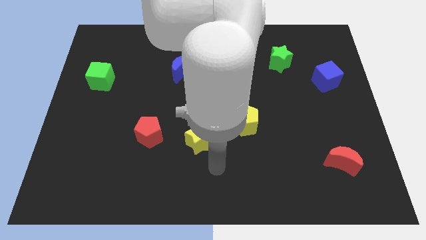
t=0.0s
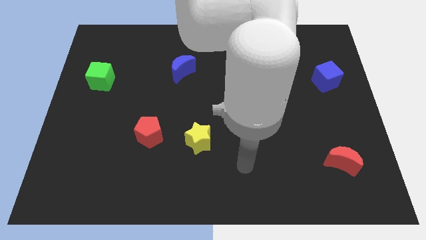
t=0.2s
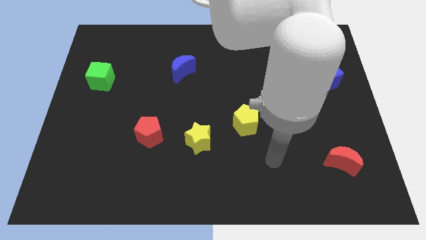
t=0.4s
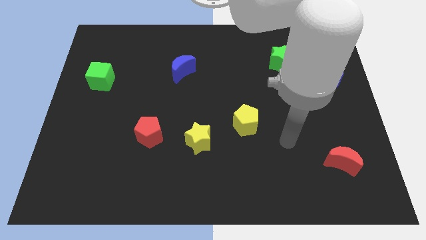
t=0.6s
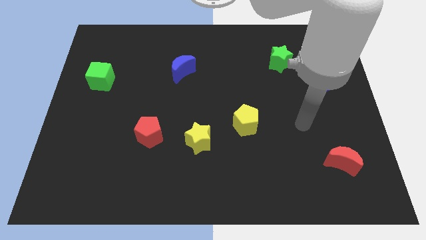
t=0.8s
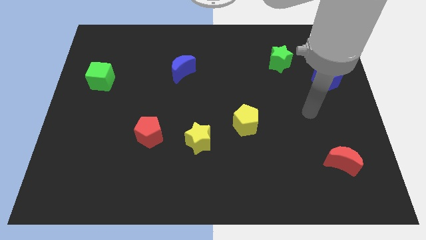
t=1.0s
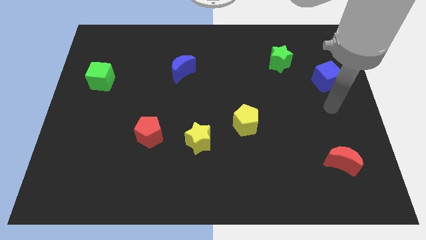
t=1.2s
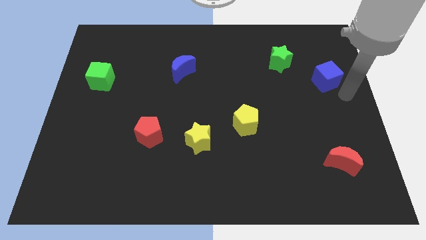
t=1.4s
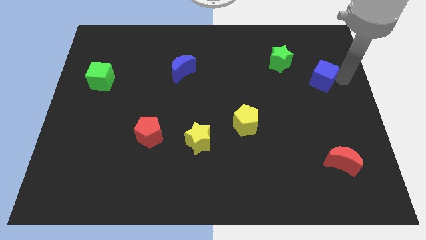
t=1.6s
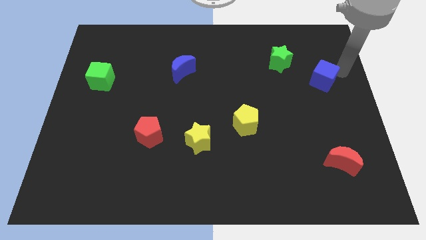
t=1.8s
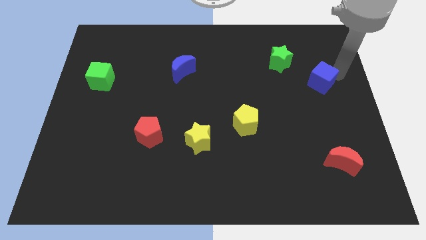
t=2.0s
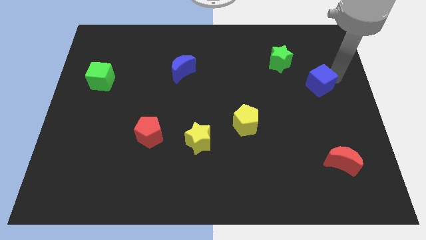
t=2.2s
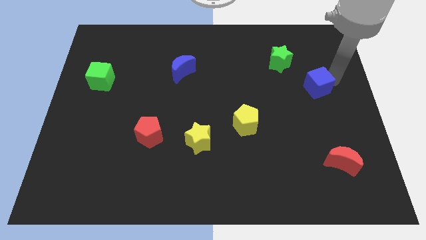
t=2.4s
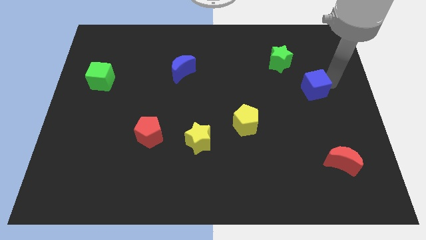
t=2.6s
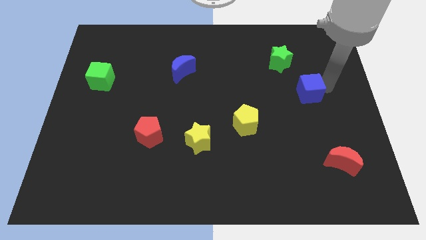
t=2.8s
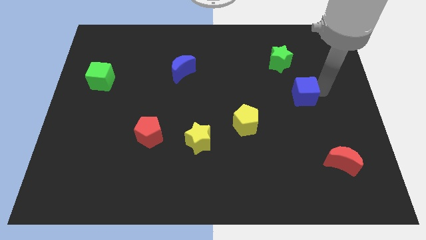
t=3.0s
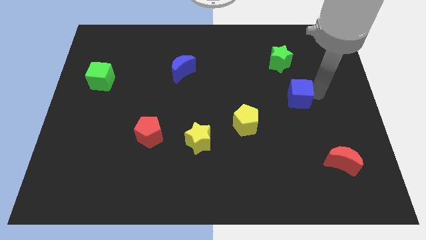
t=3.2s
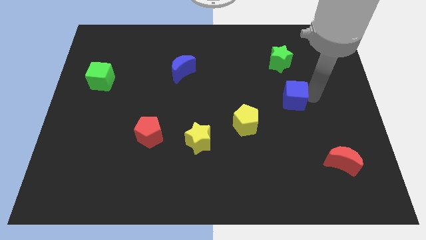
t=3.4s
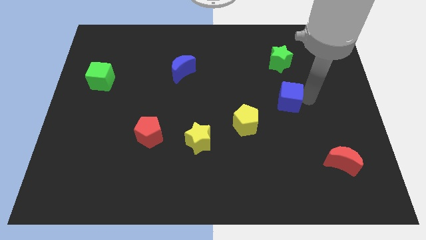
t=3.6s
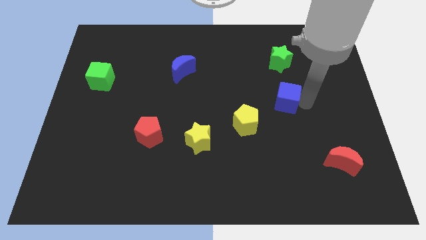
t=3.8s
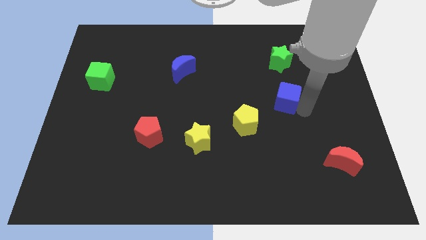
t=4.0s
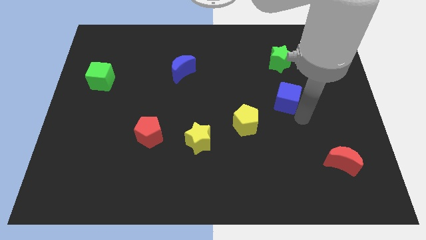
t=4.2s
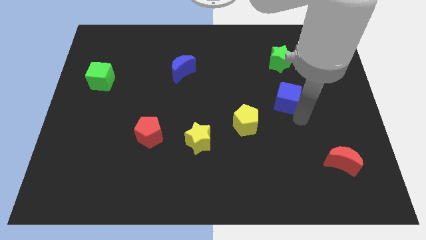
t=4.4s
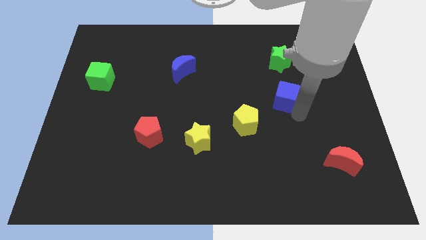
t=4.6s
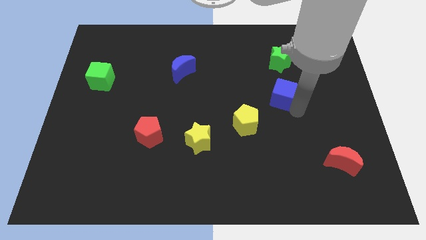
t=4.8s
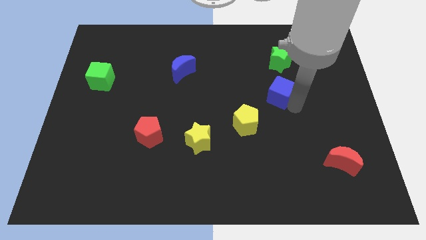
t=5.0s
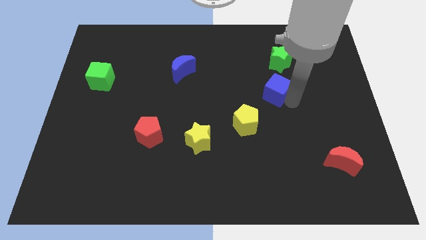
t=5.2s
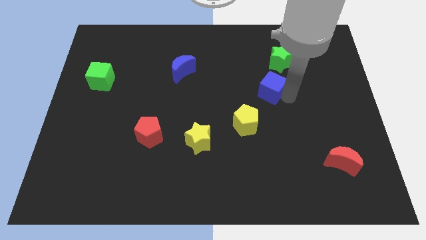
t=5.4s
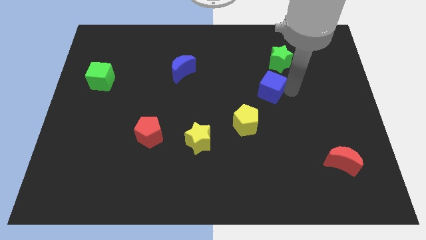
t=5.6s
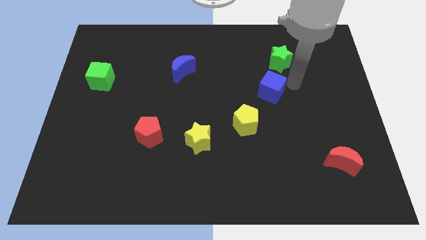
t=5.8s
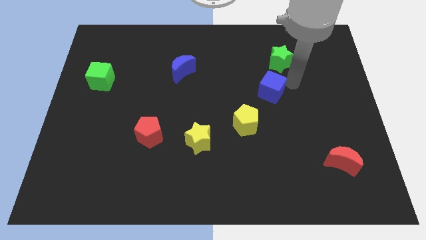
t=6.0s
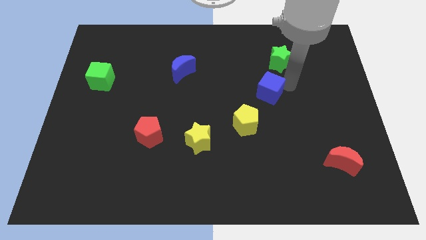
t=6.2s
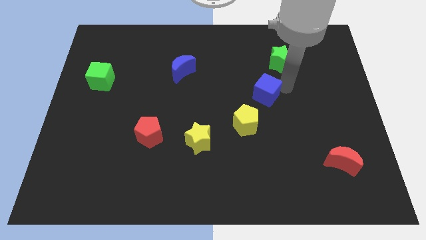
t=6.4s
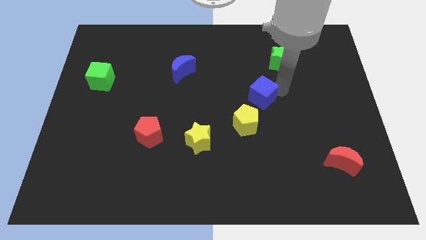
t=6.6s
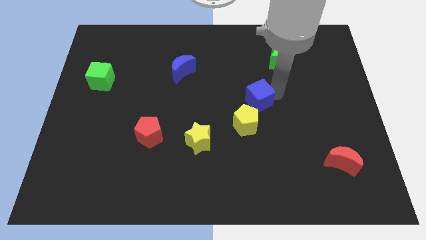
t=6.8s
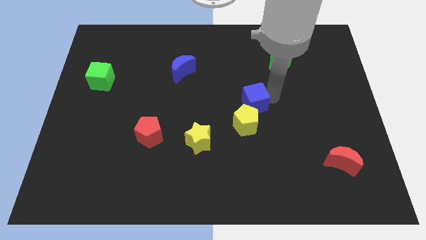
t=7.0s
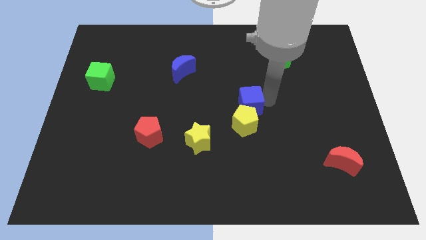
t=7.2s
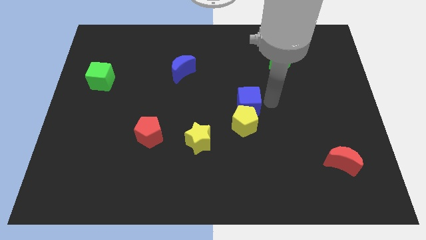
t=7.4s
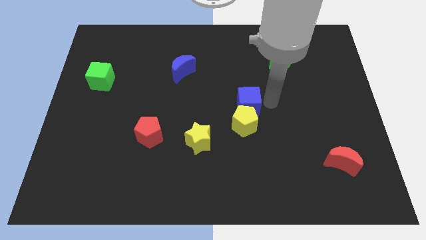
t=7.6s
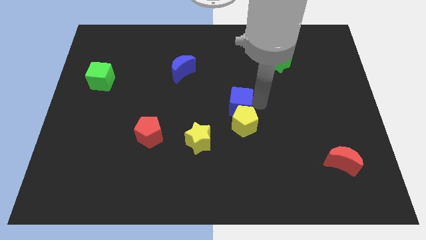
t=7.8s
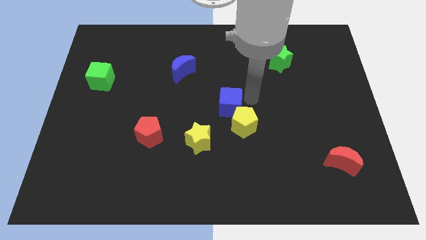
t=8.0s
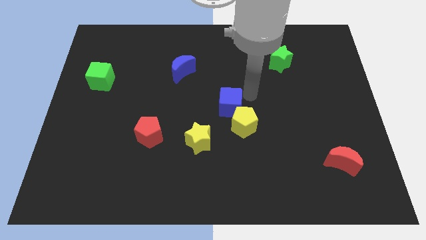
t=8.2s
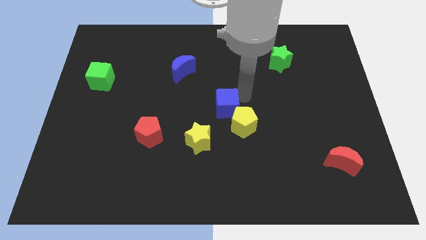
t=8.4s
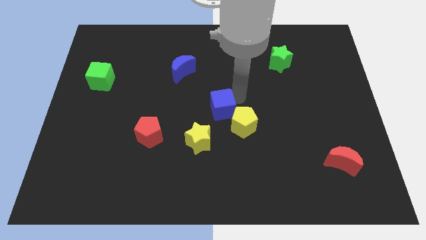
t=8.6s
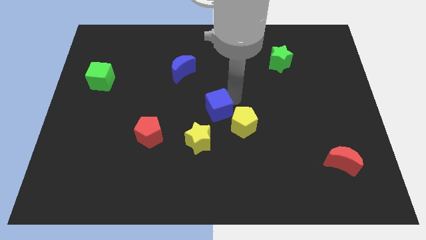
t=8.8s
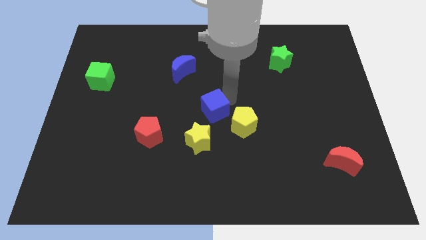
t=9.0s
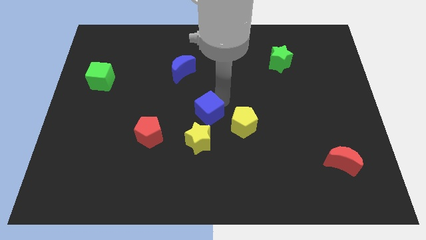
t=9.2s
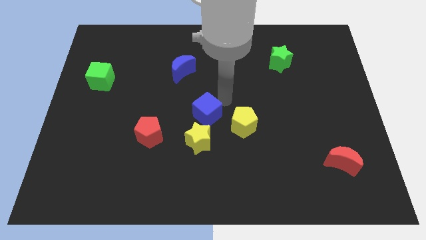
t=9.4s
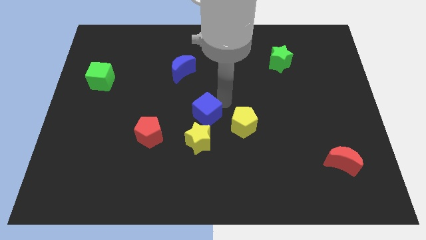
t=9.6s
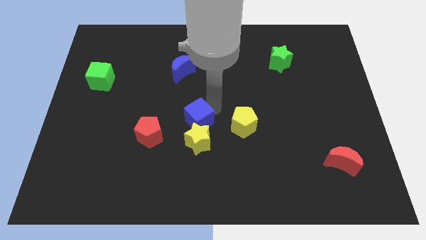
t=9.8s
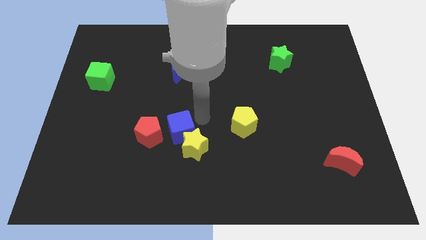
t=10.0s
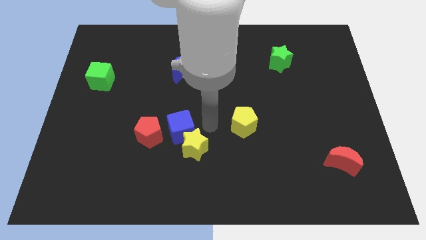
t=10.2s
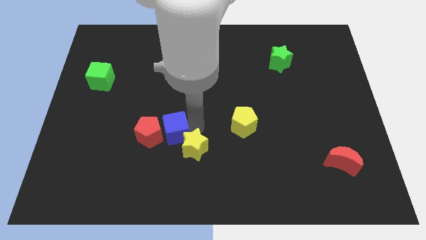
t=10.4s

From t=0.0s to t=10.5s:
slide the blue cube towards the red pentagon

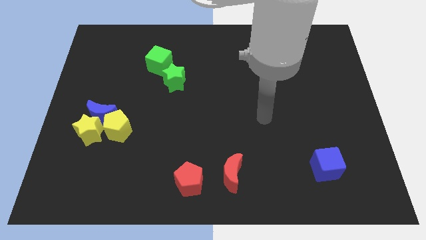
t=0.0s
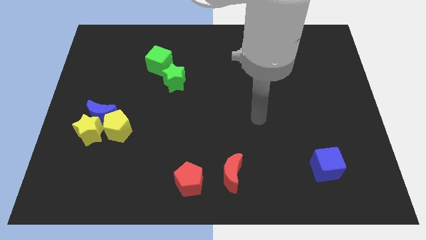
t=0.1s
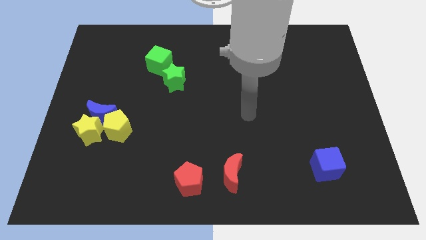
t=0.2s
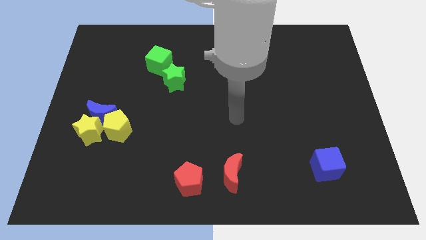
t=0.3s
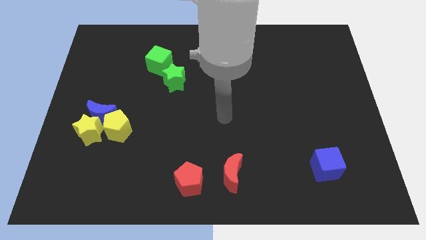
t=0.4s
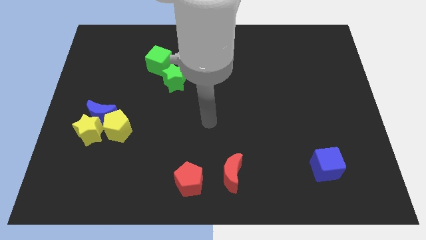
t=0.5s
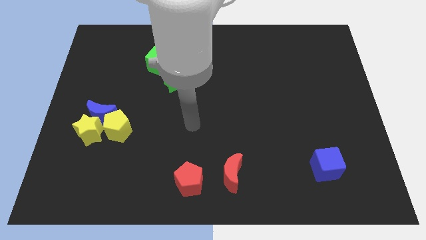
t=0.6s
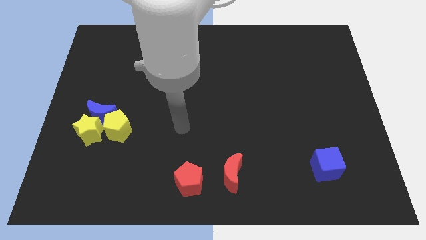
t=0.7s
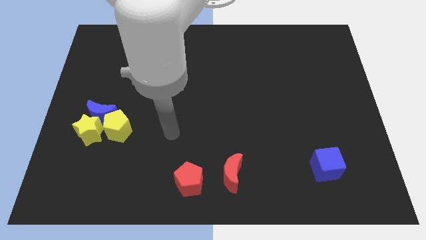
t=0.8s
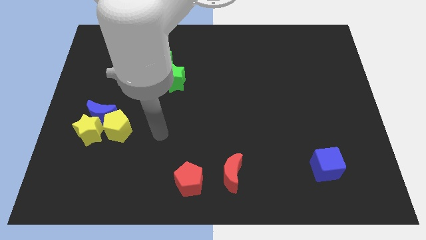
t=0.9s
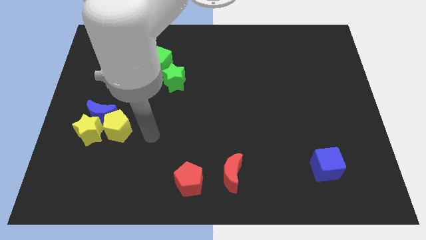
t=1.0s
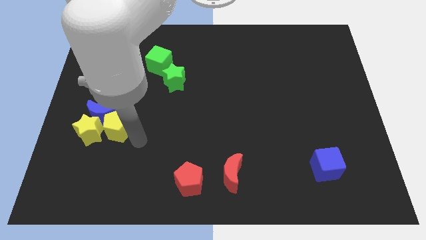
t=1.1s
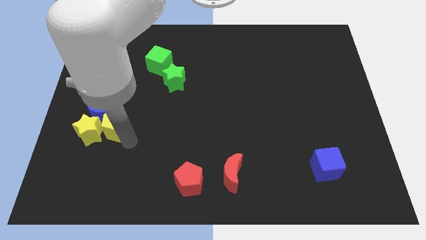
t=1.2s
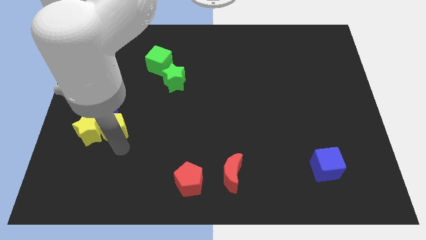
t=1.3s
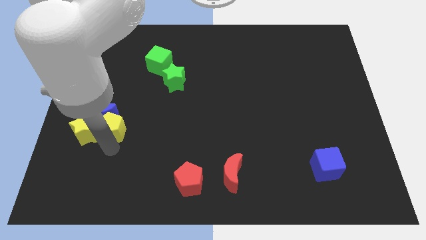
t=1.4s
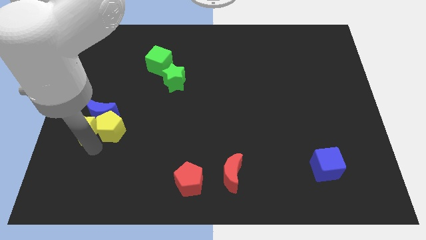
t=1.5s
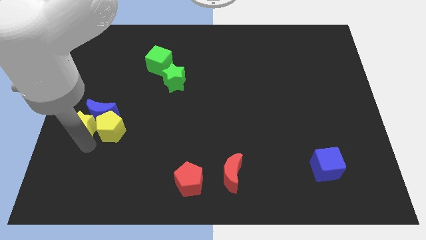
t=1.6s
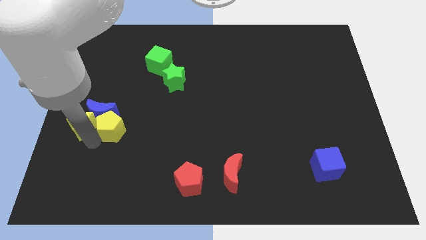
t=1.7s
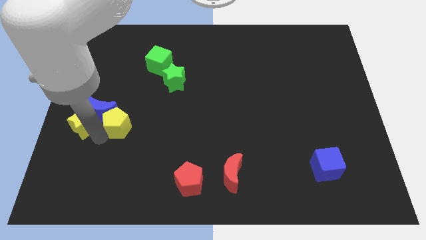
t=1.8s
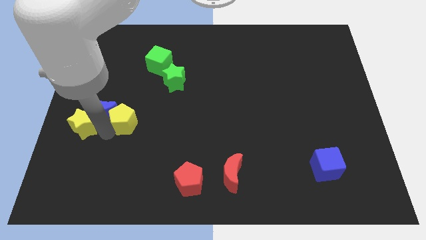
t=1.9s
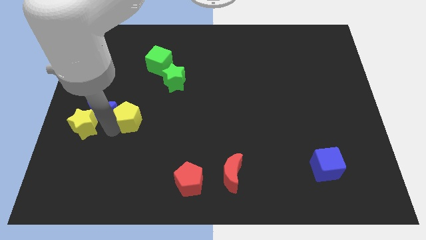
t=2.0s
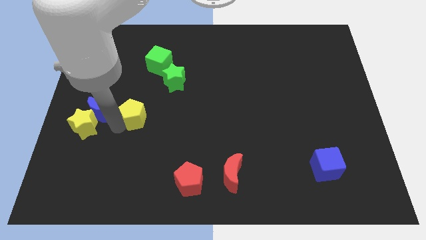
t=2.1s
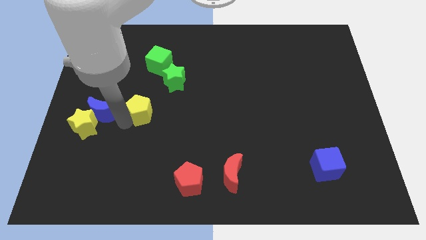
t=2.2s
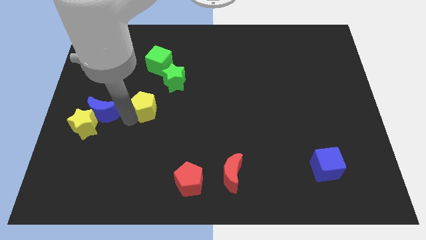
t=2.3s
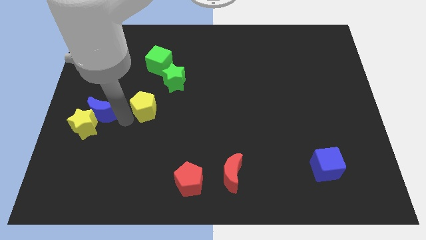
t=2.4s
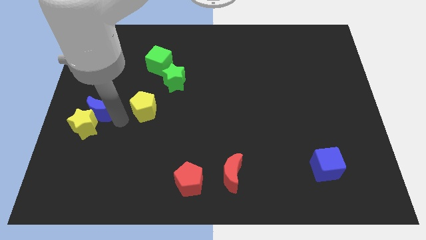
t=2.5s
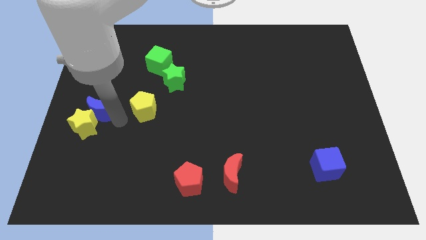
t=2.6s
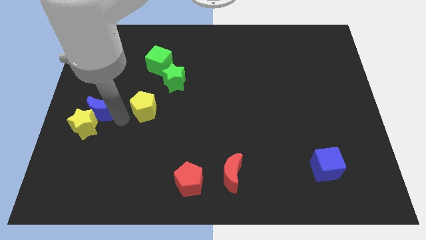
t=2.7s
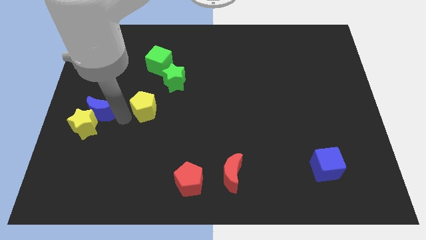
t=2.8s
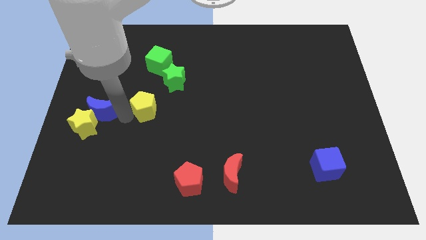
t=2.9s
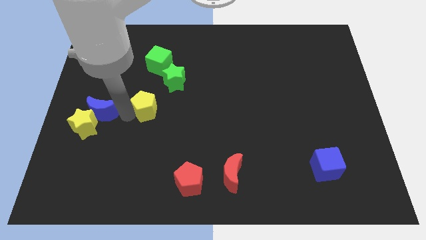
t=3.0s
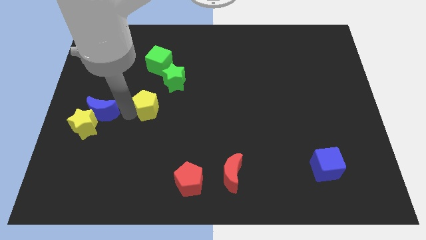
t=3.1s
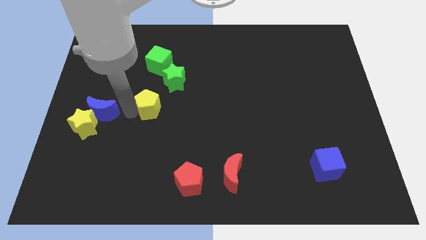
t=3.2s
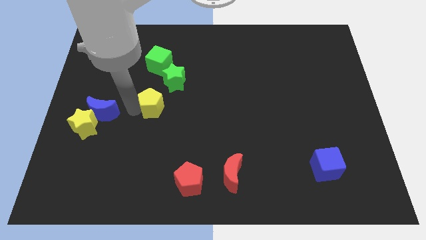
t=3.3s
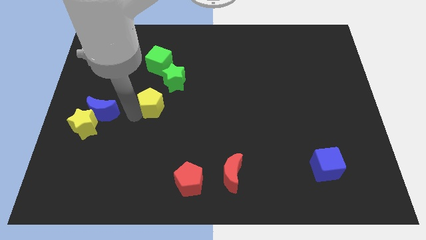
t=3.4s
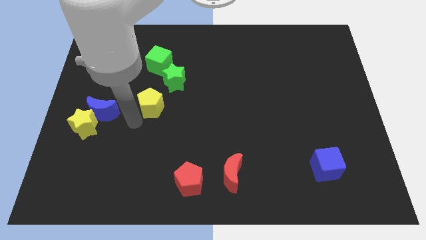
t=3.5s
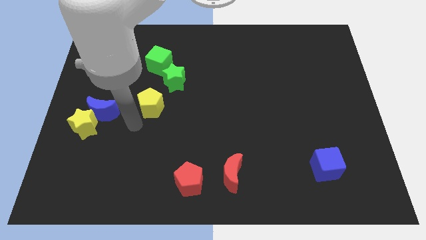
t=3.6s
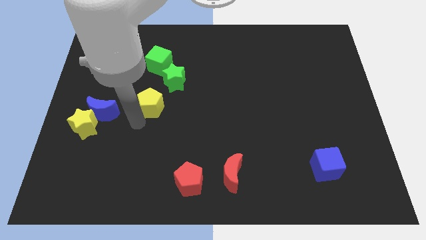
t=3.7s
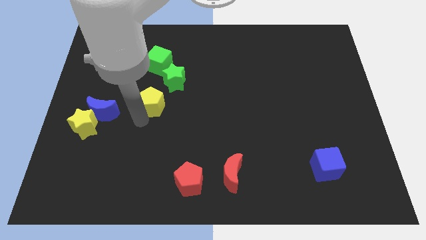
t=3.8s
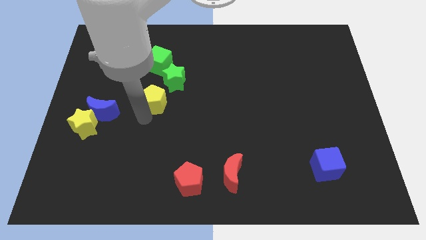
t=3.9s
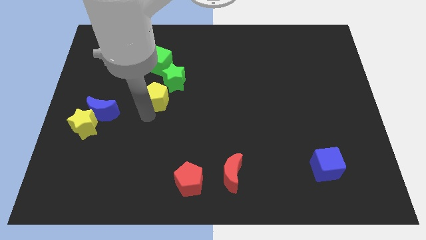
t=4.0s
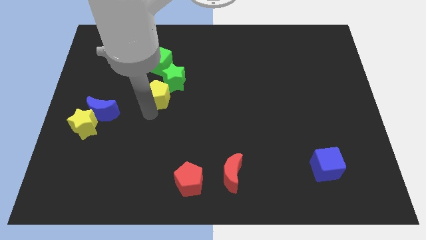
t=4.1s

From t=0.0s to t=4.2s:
put the yellow pentagon next to the green star
